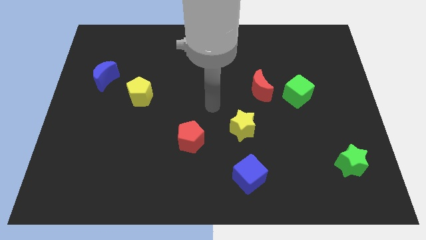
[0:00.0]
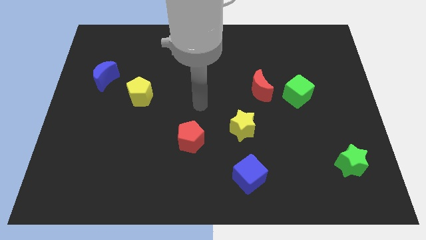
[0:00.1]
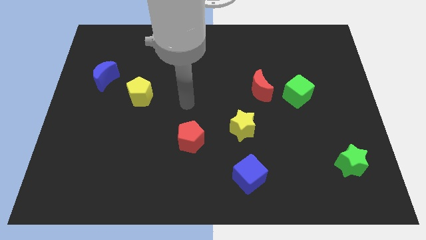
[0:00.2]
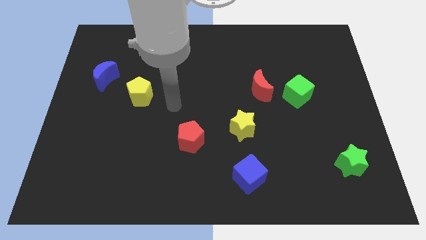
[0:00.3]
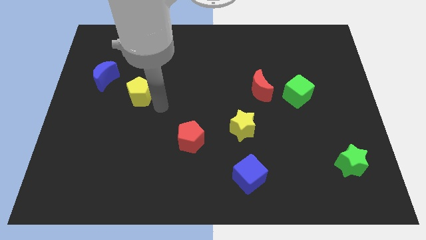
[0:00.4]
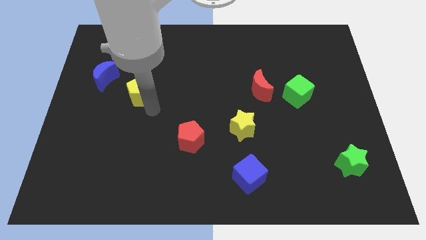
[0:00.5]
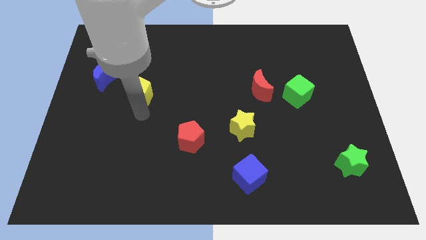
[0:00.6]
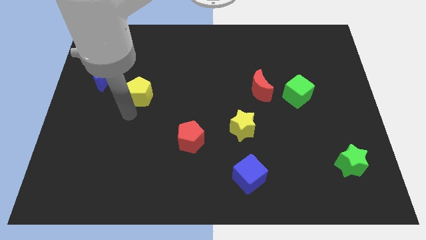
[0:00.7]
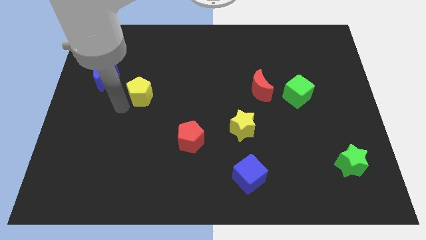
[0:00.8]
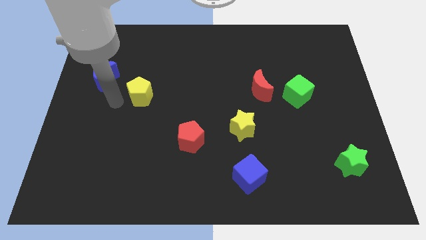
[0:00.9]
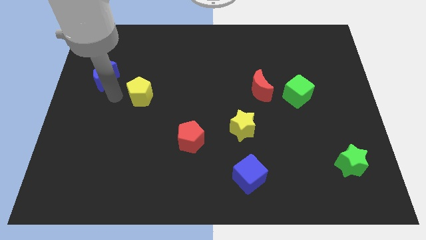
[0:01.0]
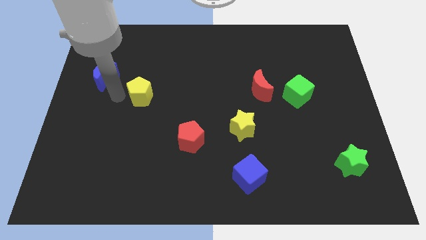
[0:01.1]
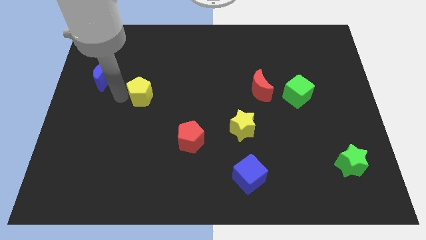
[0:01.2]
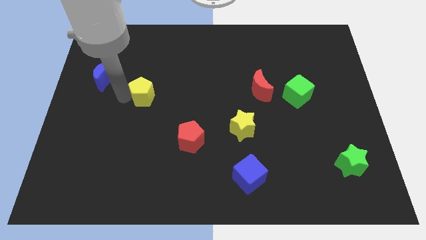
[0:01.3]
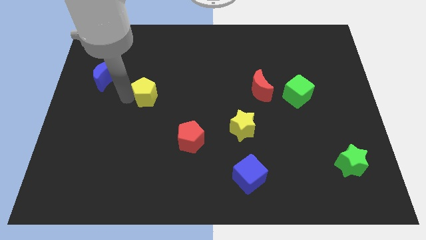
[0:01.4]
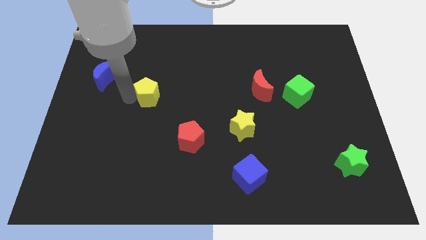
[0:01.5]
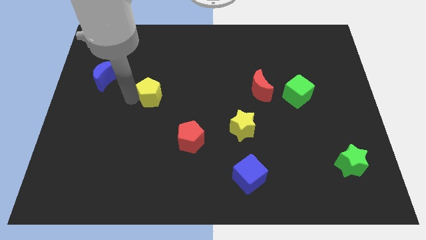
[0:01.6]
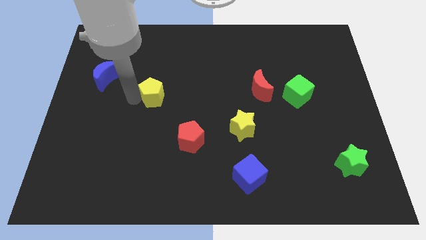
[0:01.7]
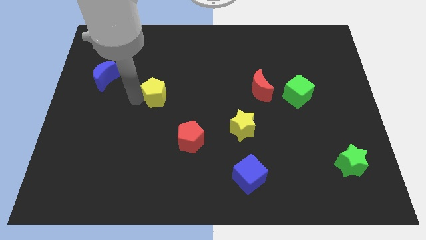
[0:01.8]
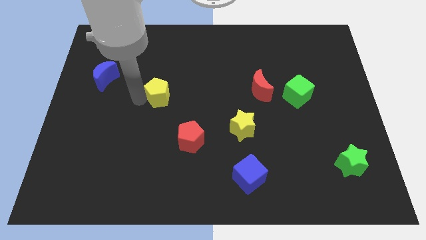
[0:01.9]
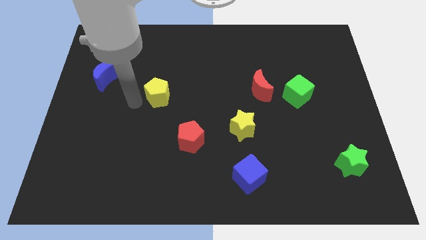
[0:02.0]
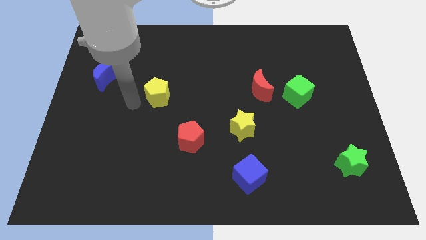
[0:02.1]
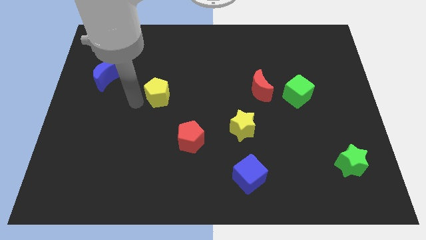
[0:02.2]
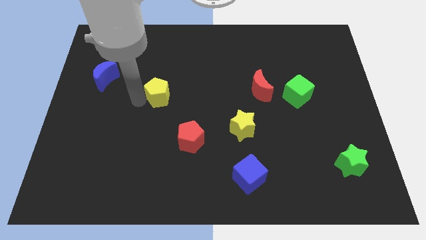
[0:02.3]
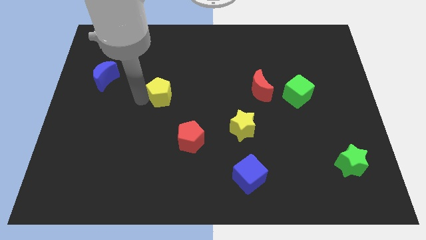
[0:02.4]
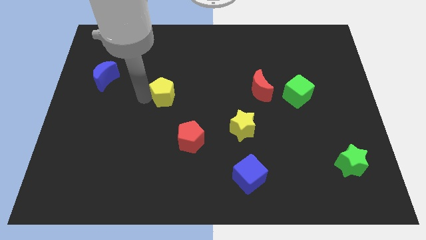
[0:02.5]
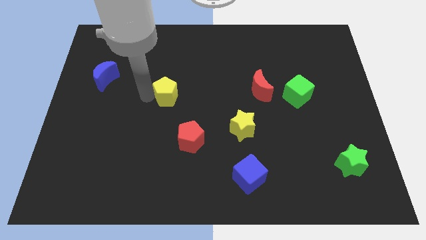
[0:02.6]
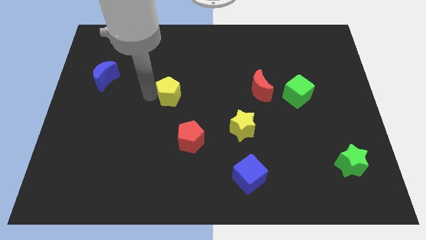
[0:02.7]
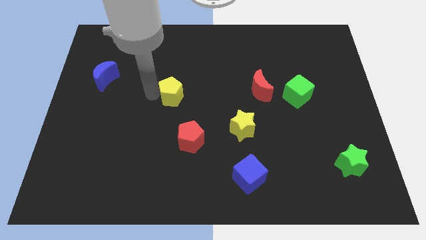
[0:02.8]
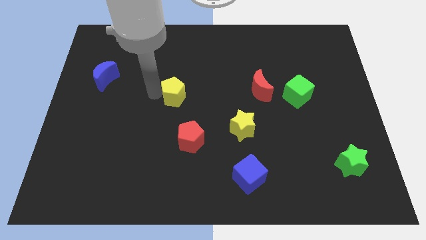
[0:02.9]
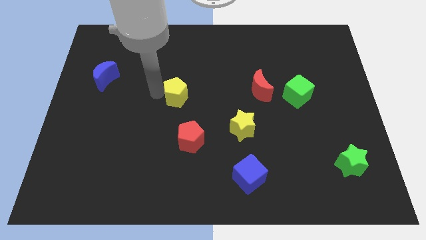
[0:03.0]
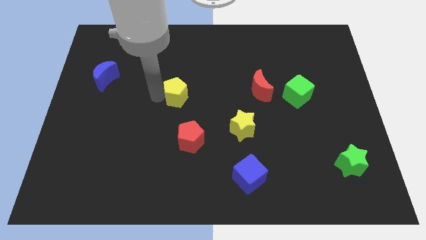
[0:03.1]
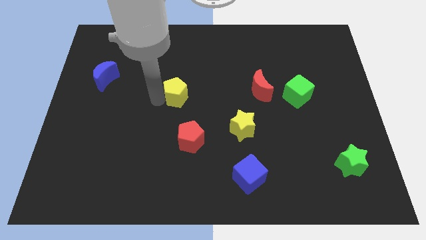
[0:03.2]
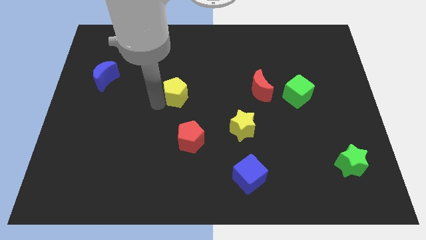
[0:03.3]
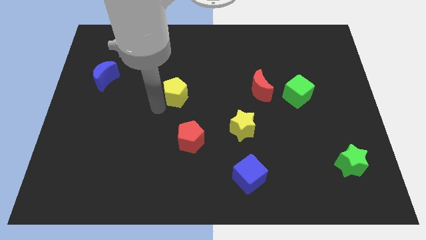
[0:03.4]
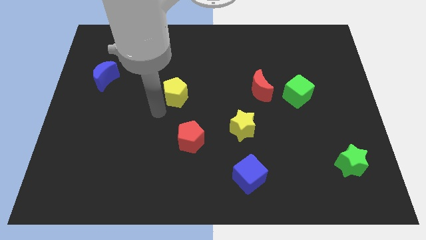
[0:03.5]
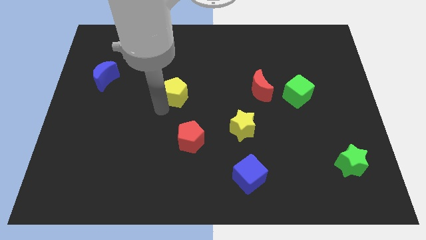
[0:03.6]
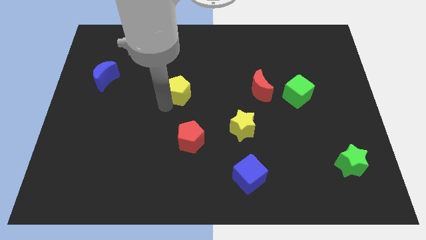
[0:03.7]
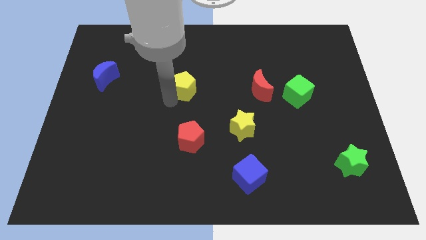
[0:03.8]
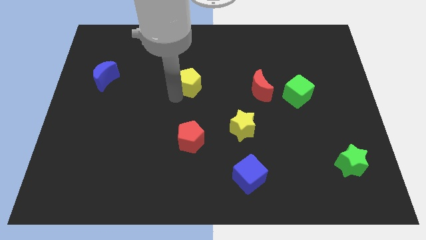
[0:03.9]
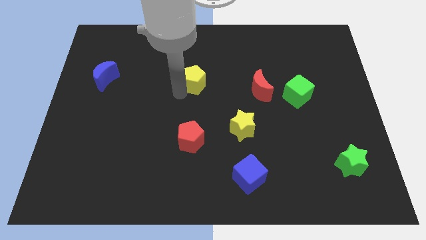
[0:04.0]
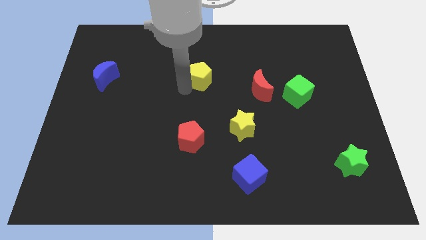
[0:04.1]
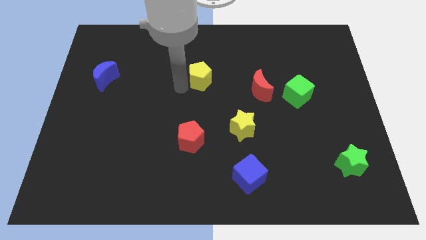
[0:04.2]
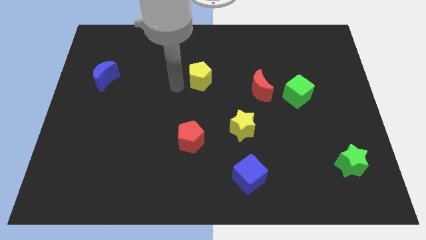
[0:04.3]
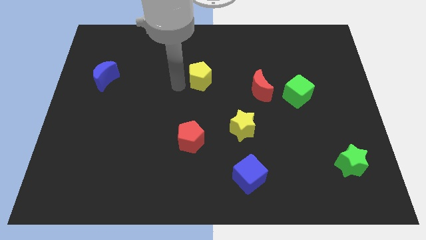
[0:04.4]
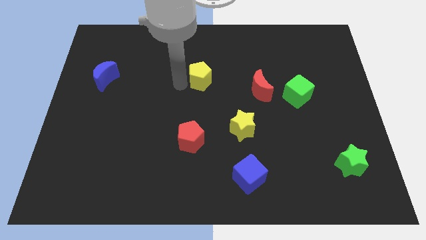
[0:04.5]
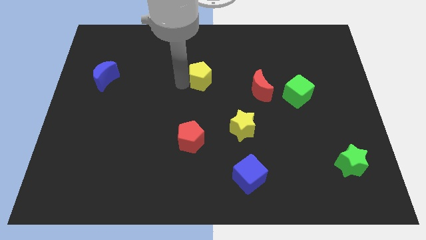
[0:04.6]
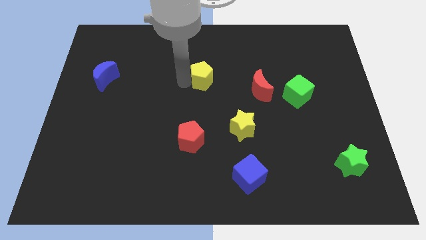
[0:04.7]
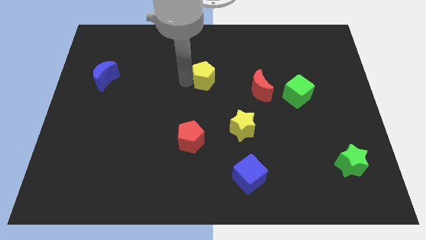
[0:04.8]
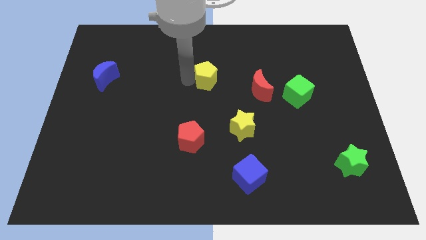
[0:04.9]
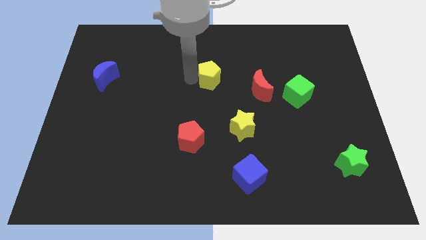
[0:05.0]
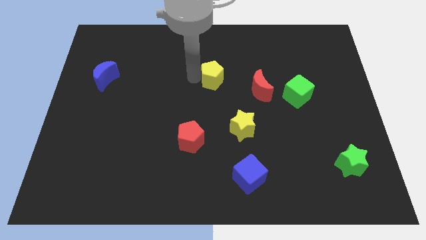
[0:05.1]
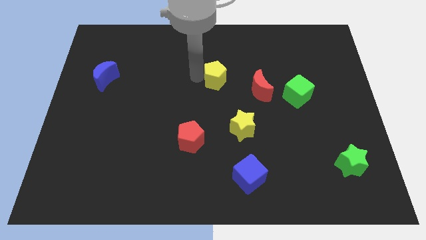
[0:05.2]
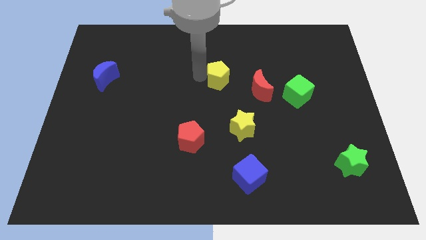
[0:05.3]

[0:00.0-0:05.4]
slide the yellow pentagon to the top left side of the red moon
